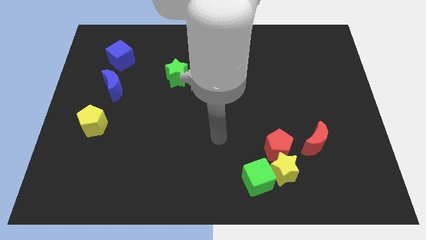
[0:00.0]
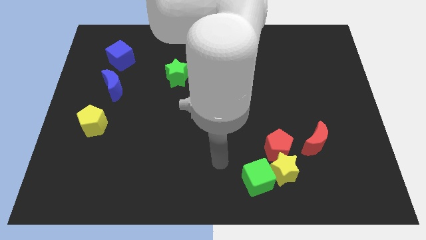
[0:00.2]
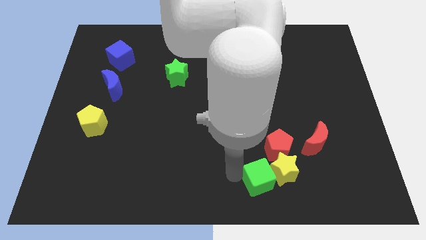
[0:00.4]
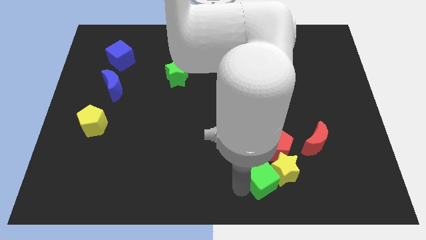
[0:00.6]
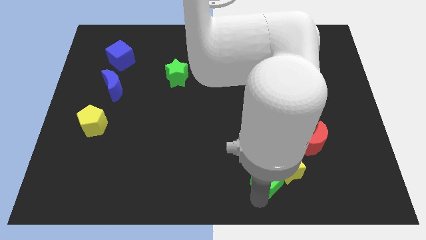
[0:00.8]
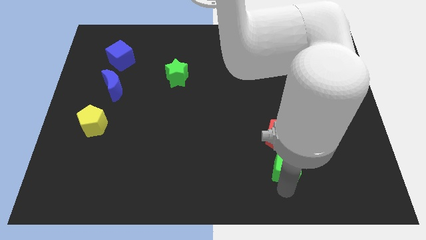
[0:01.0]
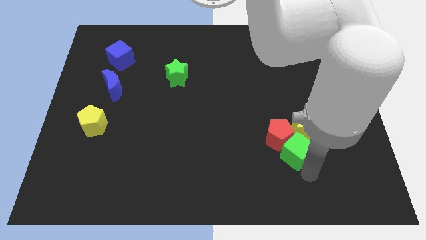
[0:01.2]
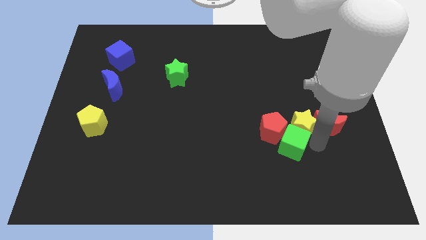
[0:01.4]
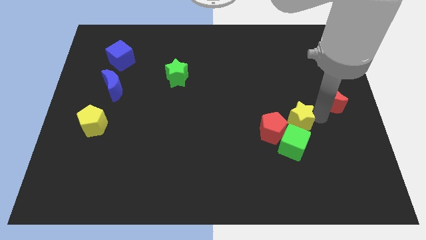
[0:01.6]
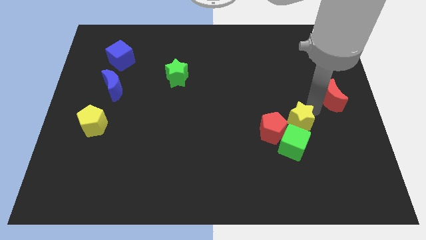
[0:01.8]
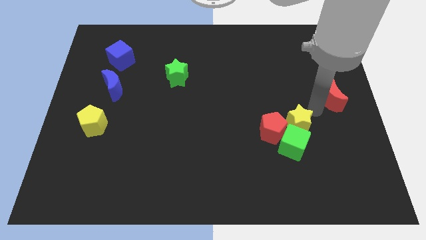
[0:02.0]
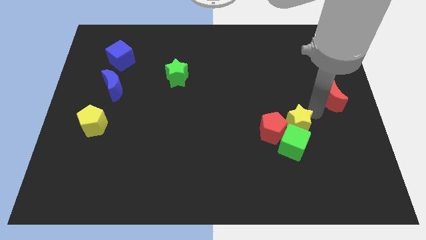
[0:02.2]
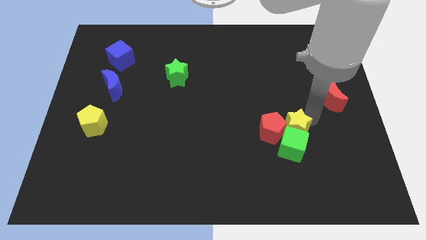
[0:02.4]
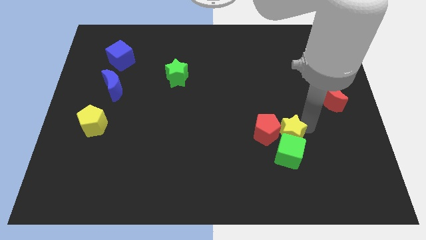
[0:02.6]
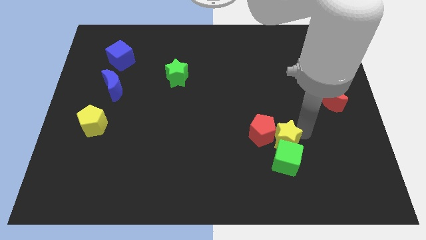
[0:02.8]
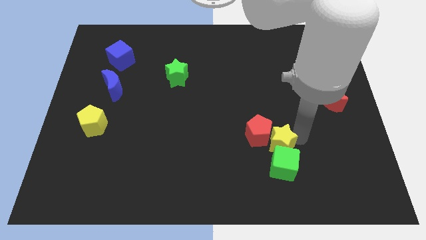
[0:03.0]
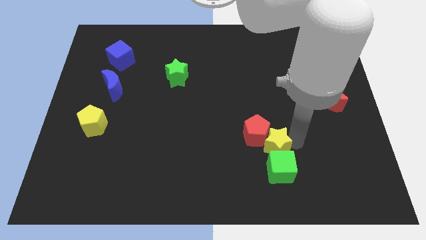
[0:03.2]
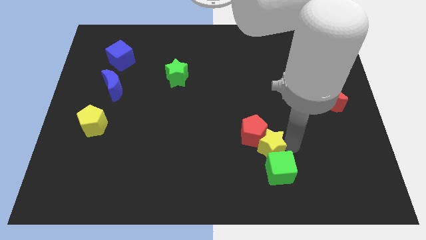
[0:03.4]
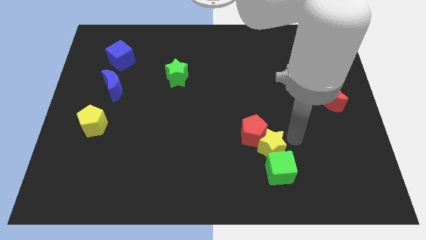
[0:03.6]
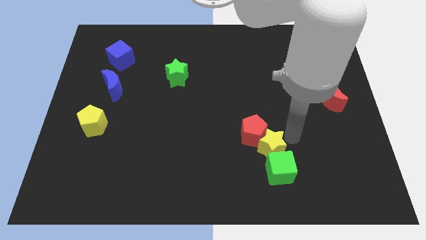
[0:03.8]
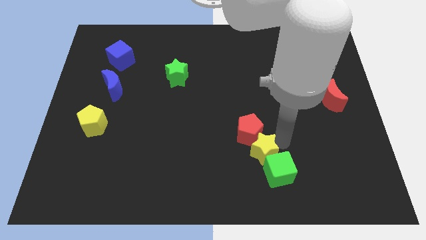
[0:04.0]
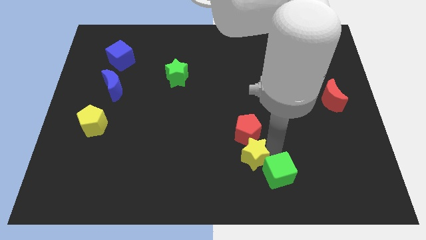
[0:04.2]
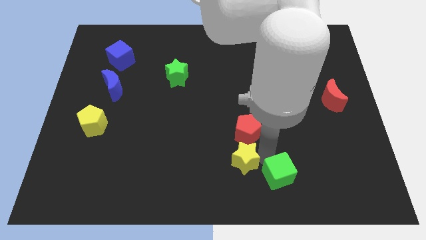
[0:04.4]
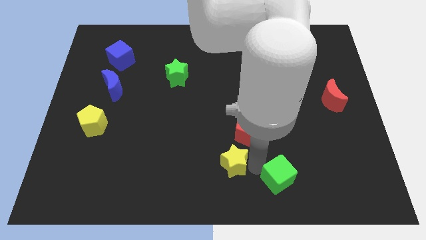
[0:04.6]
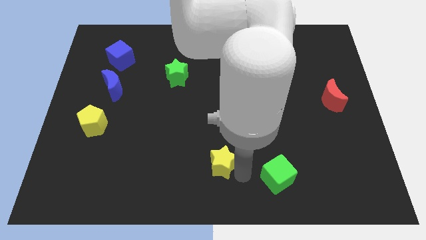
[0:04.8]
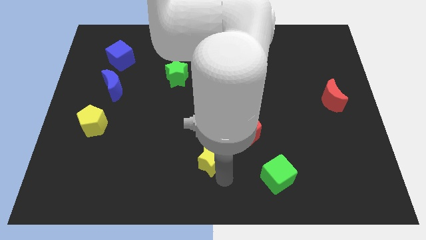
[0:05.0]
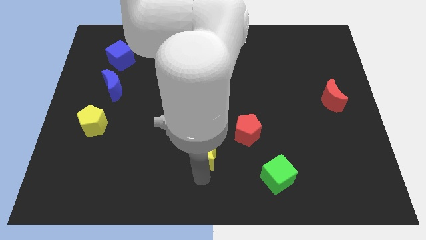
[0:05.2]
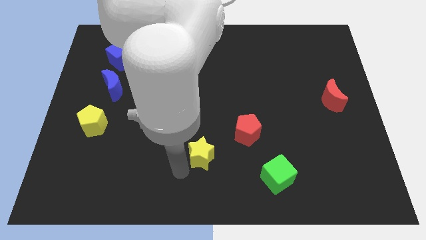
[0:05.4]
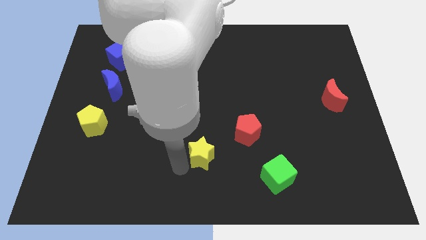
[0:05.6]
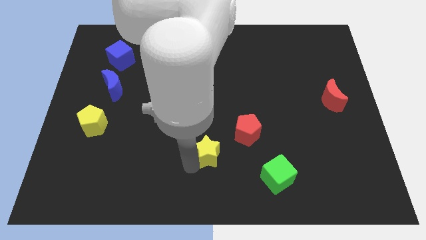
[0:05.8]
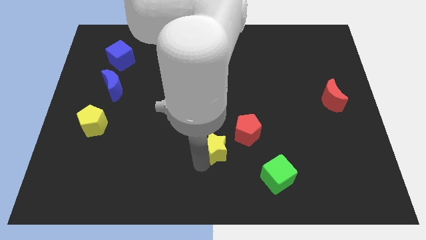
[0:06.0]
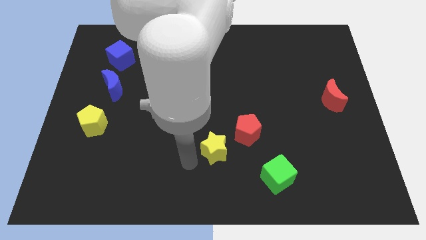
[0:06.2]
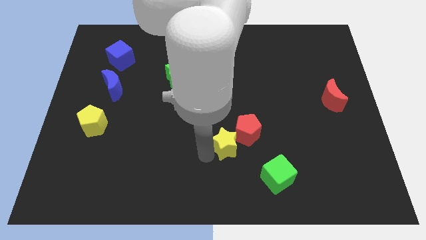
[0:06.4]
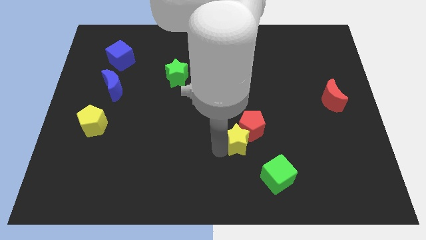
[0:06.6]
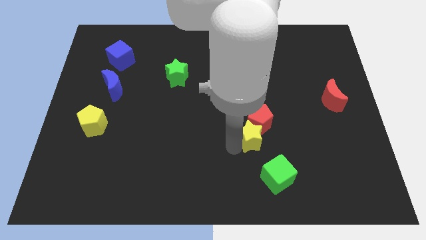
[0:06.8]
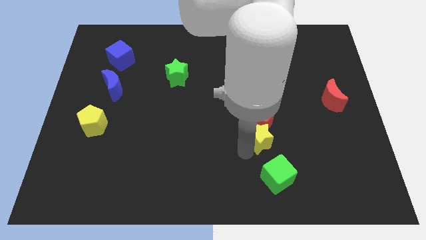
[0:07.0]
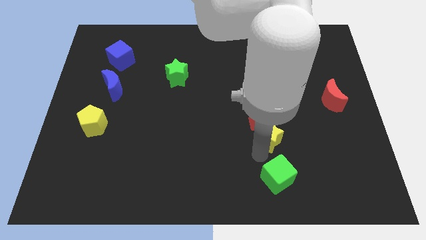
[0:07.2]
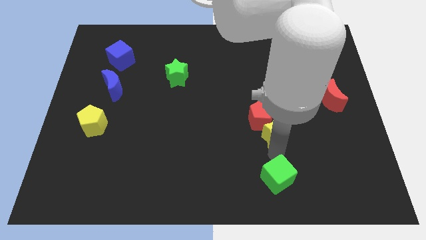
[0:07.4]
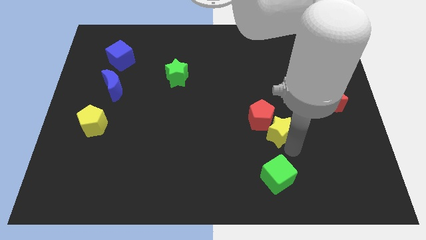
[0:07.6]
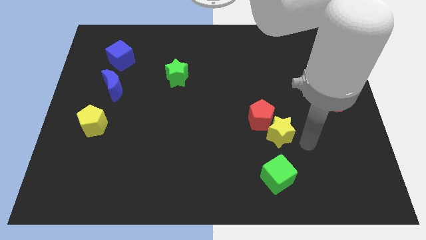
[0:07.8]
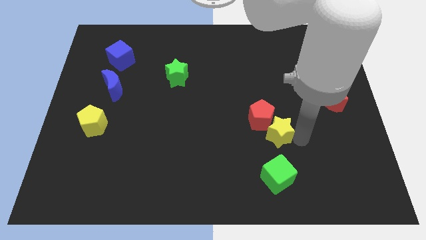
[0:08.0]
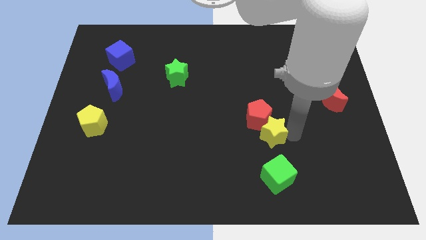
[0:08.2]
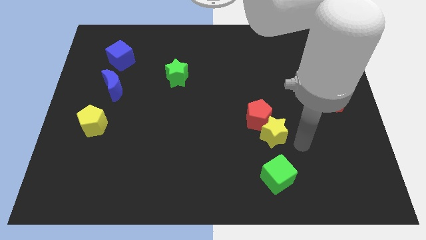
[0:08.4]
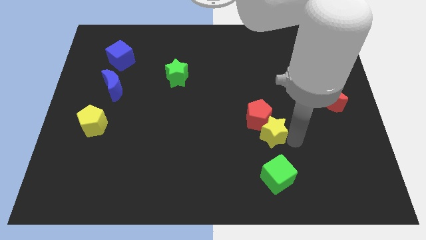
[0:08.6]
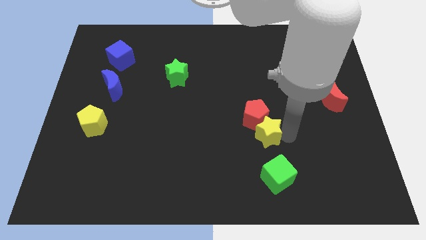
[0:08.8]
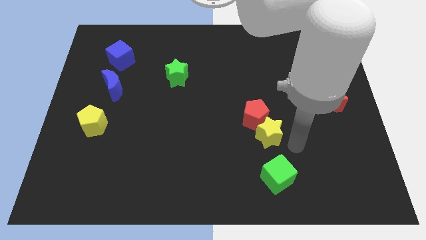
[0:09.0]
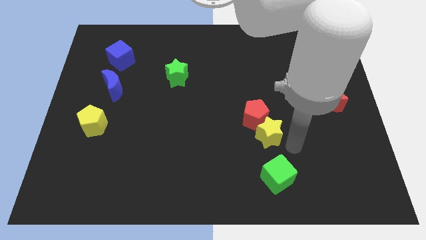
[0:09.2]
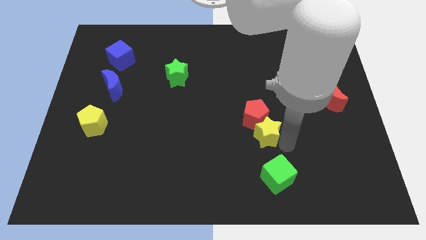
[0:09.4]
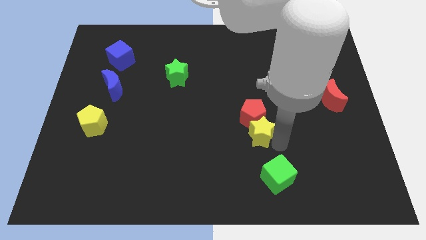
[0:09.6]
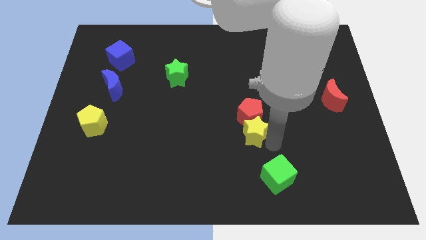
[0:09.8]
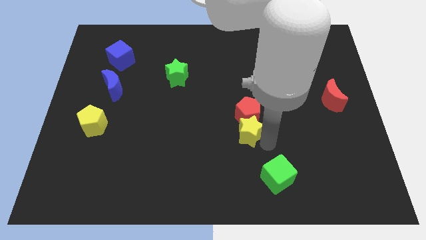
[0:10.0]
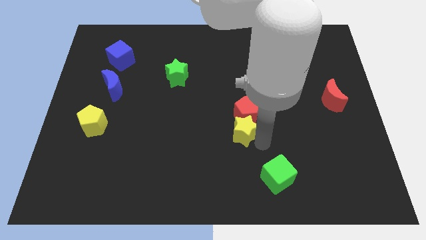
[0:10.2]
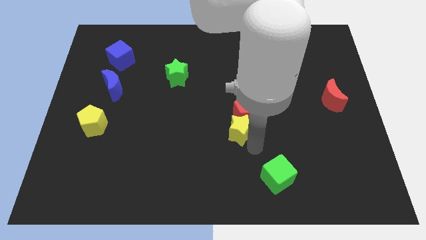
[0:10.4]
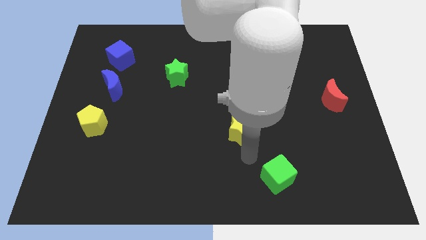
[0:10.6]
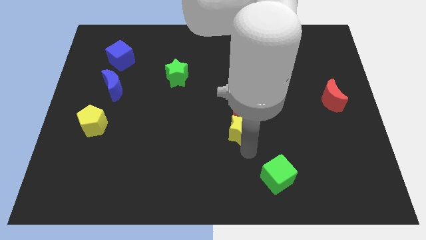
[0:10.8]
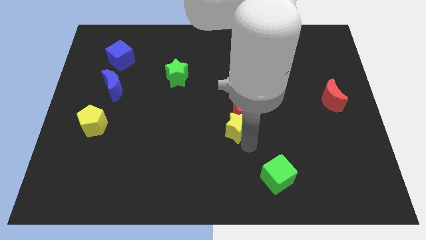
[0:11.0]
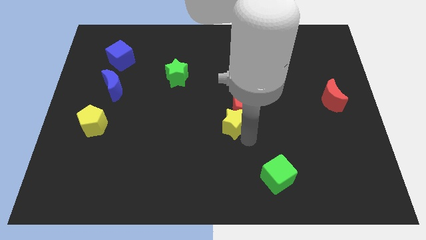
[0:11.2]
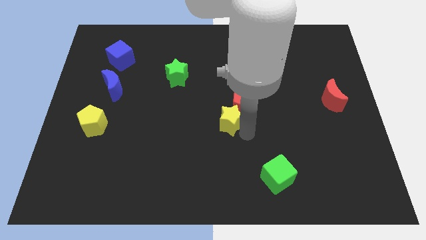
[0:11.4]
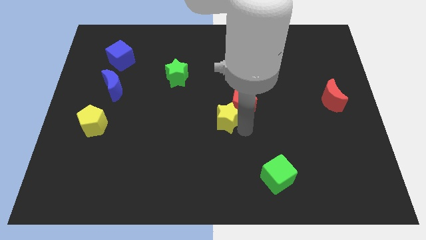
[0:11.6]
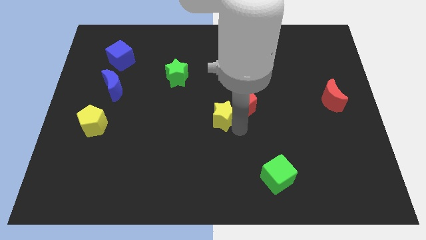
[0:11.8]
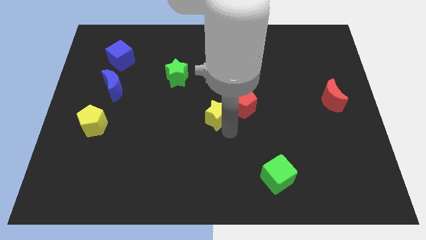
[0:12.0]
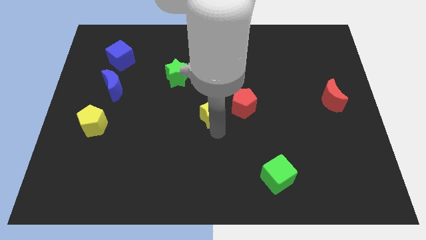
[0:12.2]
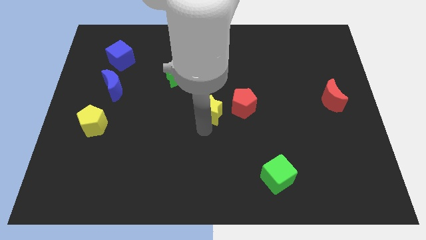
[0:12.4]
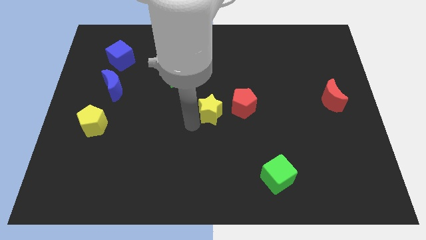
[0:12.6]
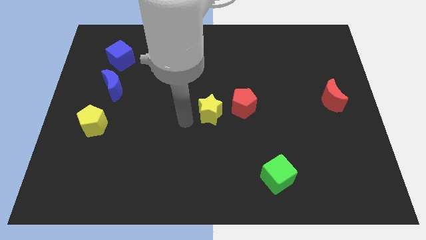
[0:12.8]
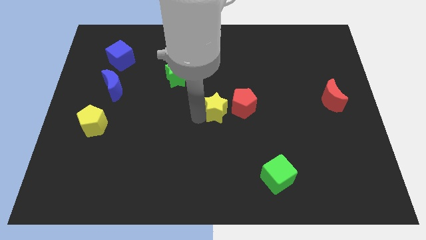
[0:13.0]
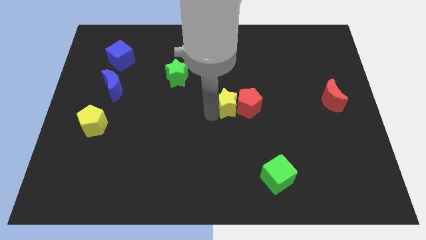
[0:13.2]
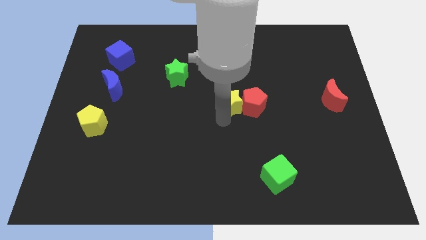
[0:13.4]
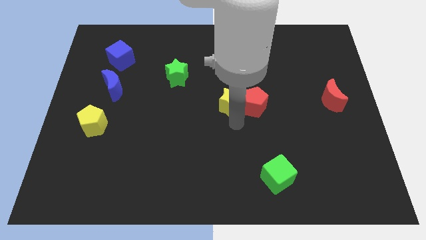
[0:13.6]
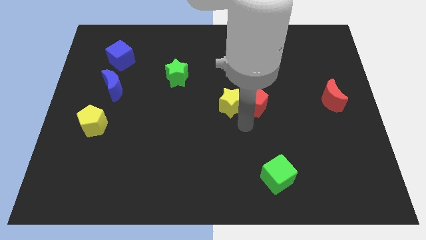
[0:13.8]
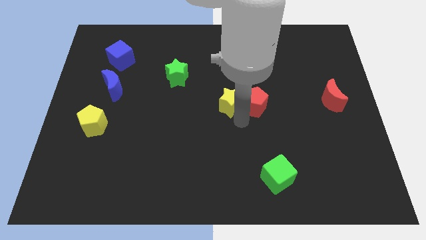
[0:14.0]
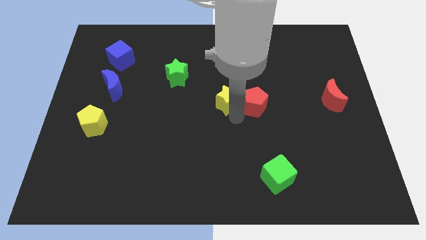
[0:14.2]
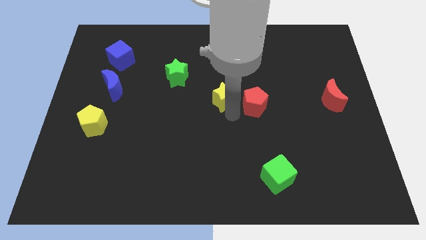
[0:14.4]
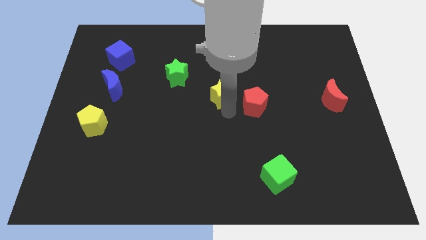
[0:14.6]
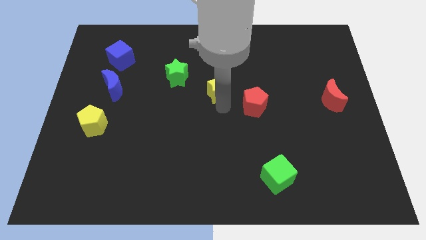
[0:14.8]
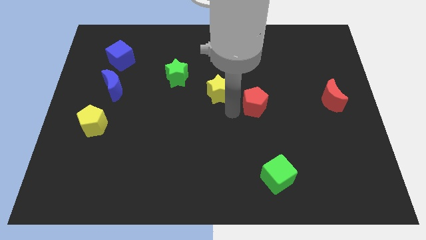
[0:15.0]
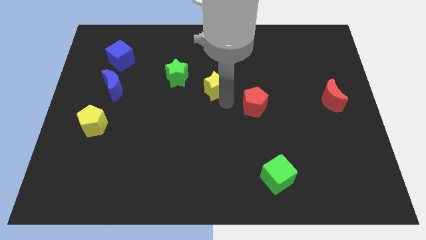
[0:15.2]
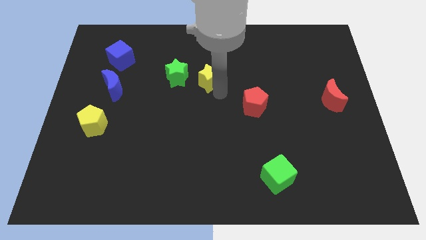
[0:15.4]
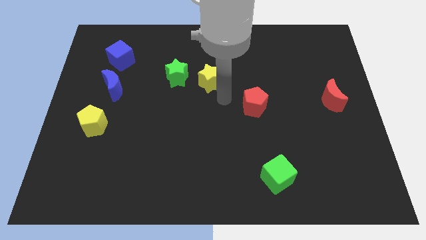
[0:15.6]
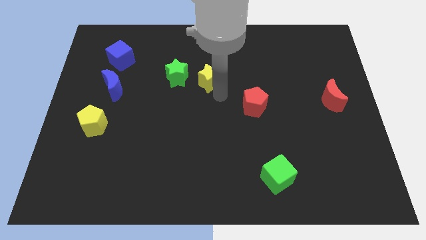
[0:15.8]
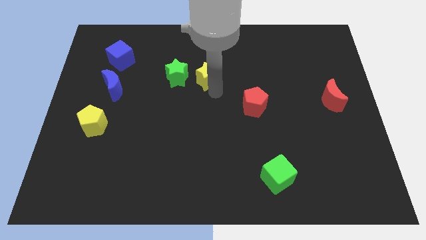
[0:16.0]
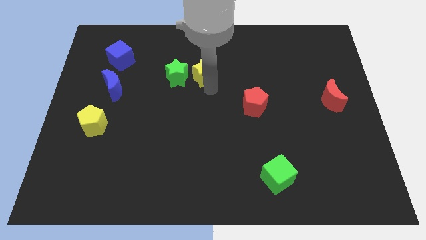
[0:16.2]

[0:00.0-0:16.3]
slide the yellow star diagonally up and to the right of the green star
